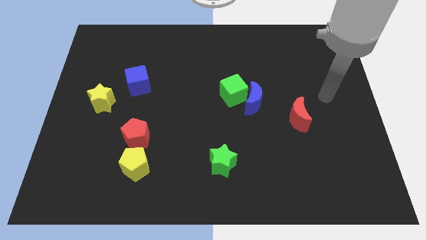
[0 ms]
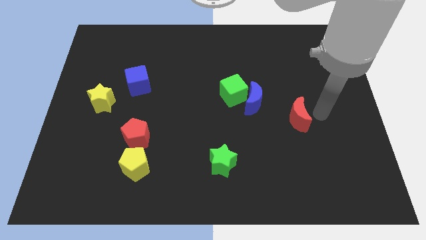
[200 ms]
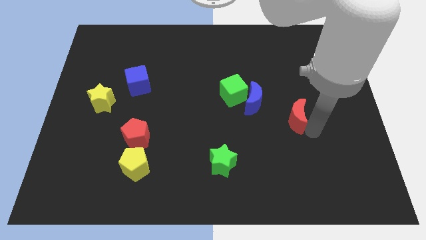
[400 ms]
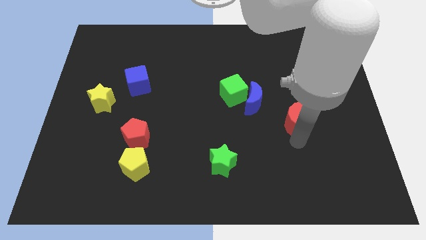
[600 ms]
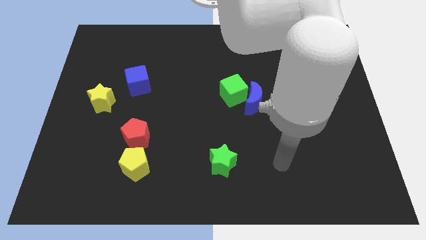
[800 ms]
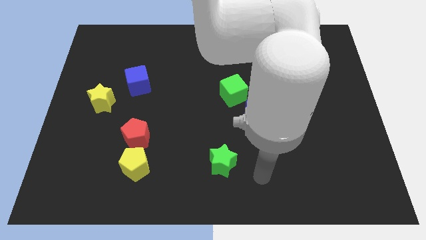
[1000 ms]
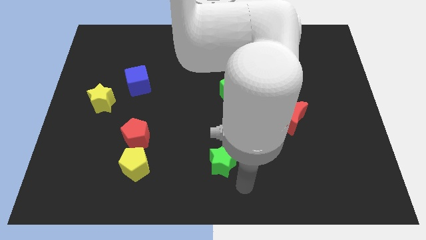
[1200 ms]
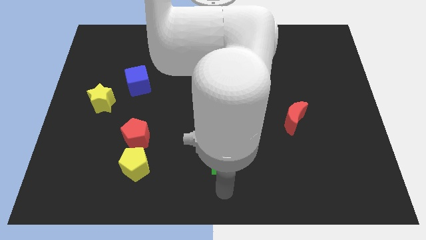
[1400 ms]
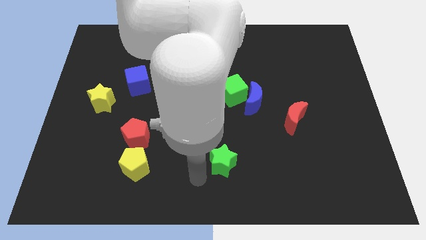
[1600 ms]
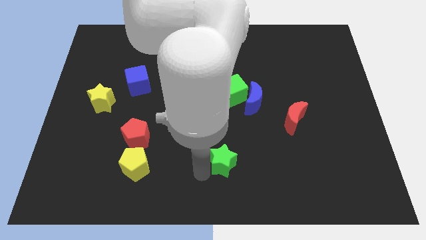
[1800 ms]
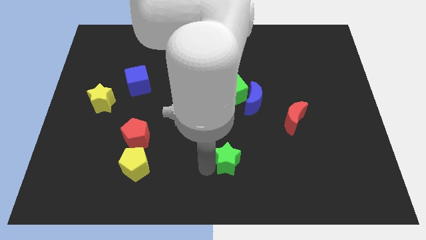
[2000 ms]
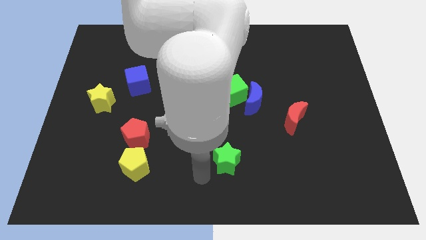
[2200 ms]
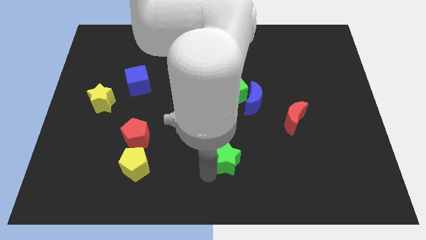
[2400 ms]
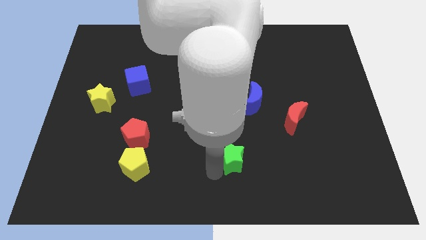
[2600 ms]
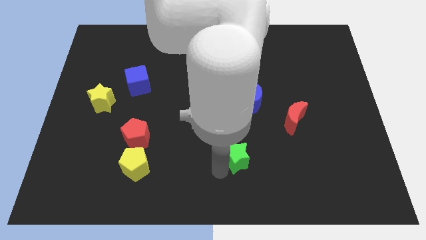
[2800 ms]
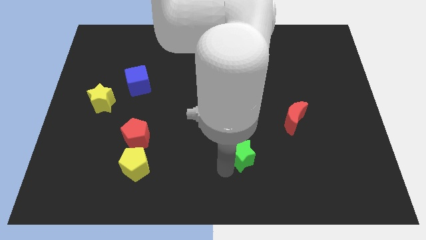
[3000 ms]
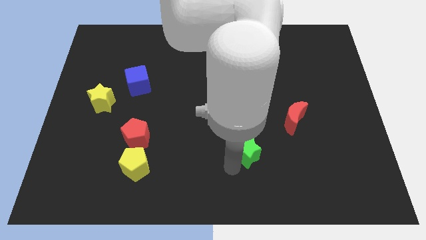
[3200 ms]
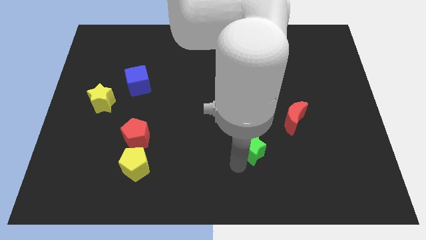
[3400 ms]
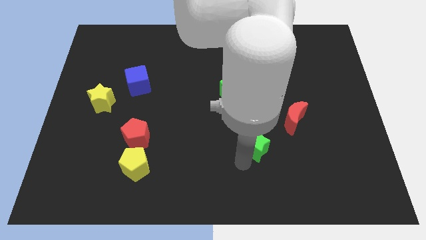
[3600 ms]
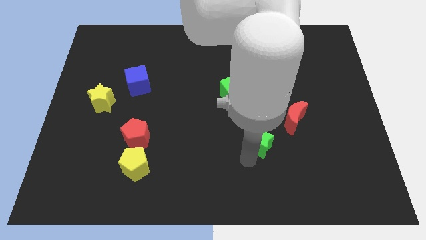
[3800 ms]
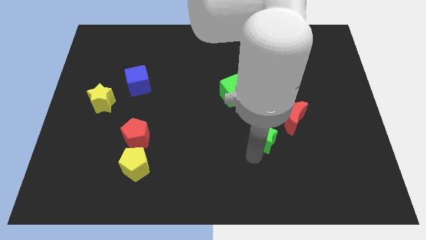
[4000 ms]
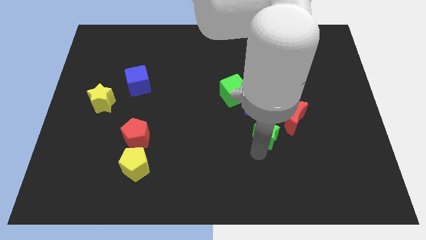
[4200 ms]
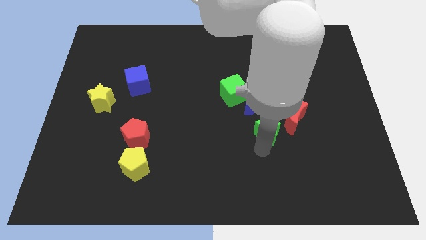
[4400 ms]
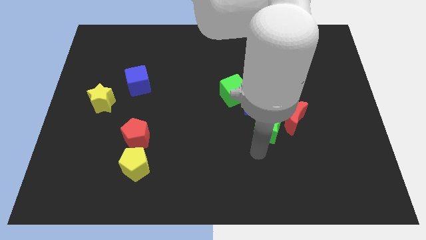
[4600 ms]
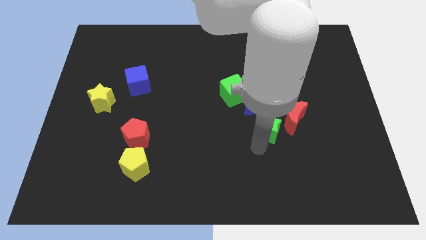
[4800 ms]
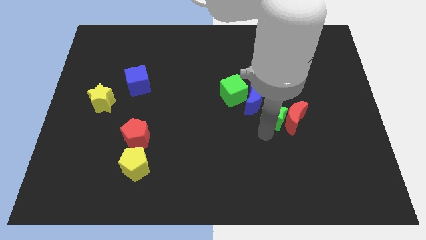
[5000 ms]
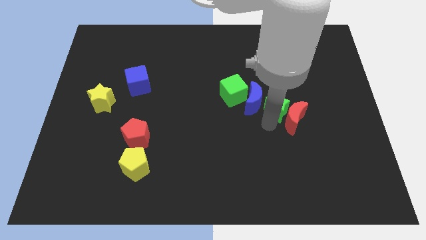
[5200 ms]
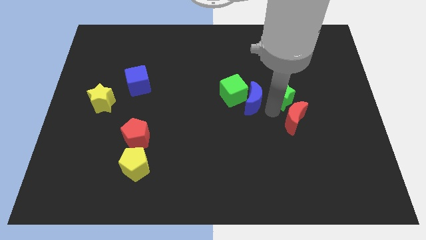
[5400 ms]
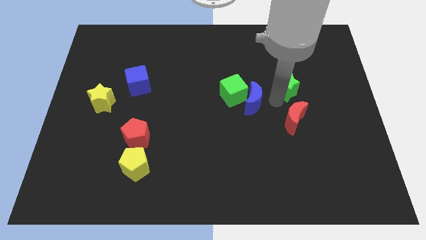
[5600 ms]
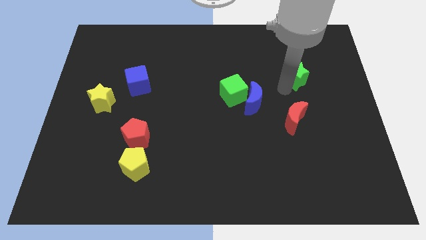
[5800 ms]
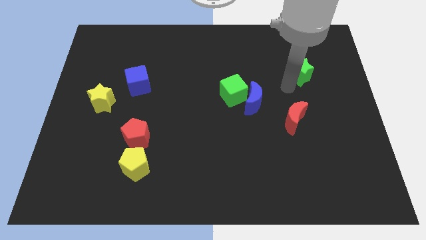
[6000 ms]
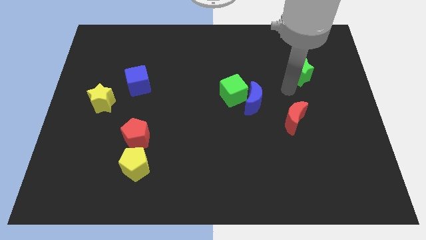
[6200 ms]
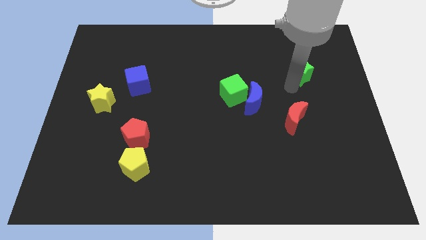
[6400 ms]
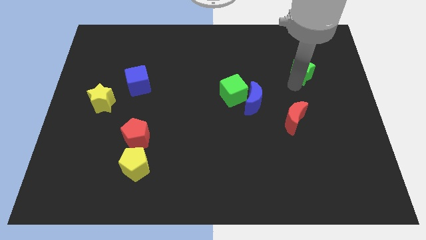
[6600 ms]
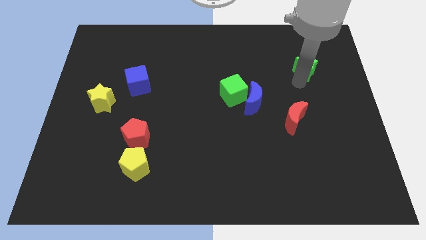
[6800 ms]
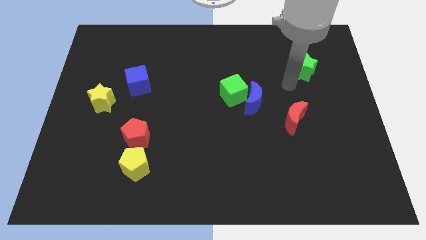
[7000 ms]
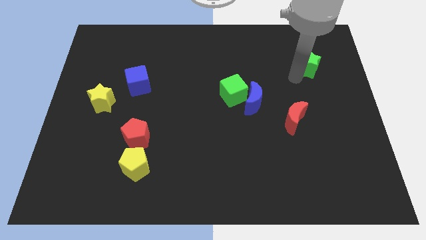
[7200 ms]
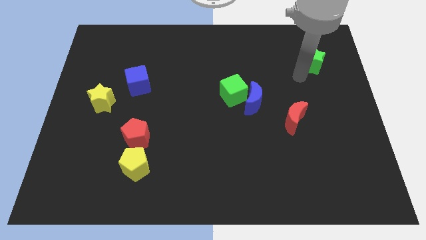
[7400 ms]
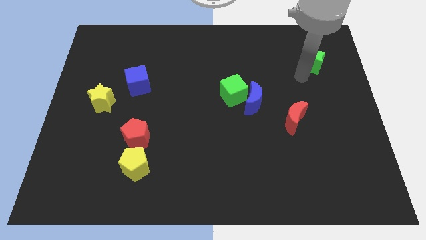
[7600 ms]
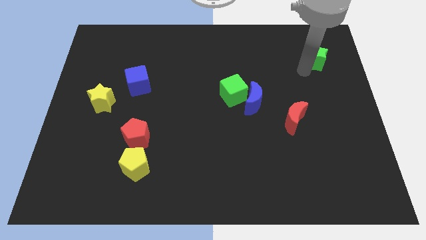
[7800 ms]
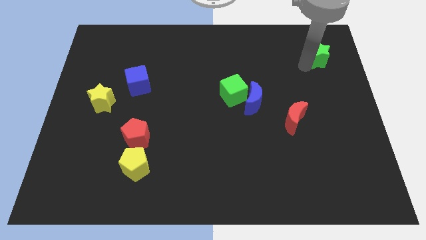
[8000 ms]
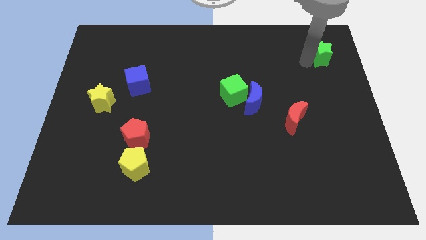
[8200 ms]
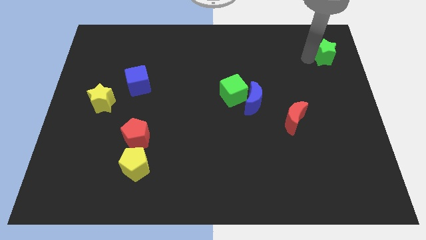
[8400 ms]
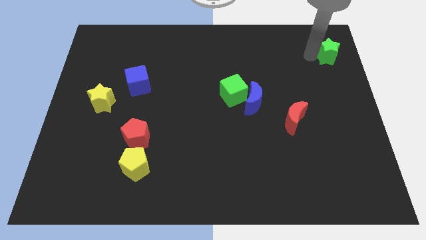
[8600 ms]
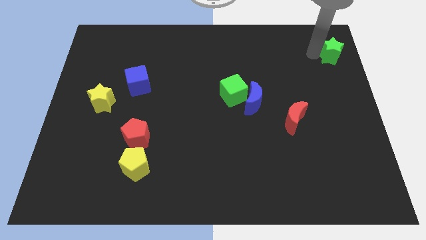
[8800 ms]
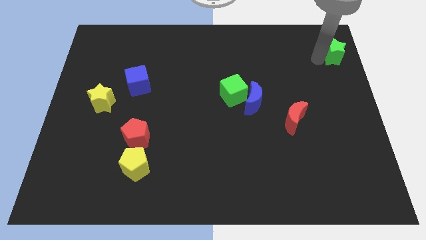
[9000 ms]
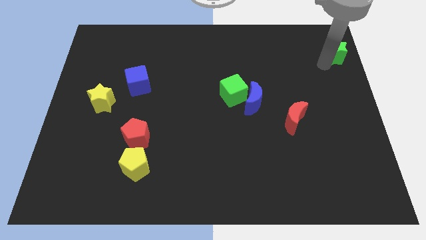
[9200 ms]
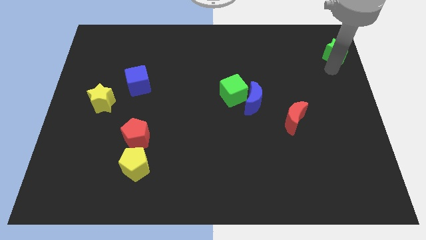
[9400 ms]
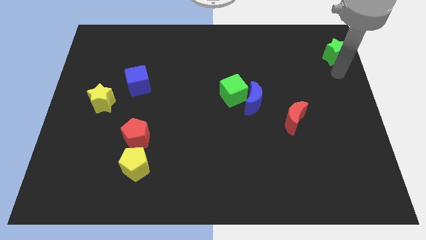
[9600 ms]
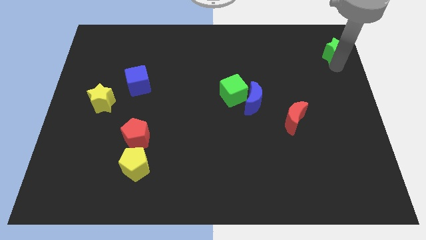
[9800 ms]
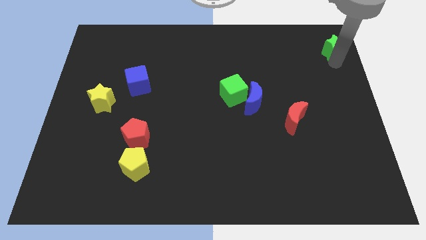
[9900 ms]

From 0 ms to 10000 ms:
slide the green star to the top right corner

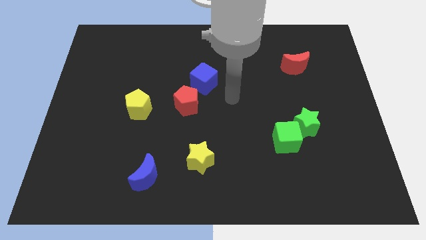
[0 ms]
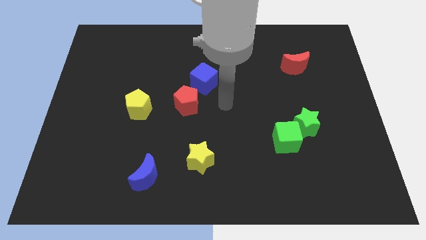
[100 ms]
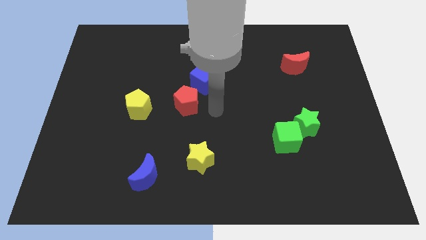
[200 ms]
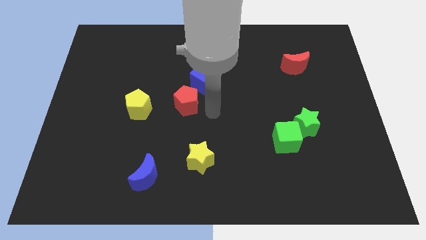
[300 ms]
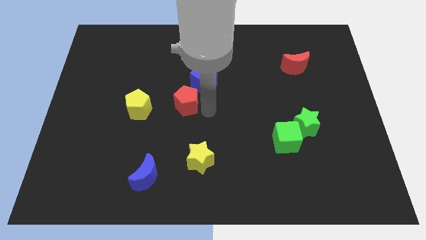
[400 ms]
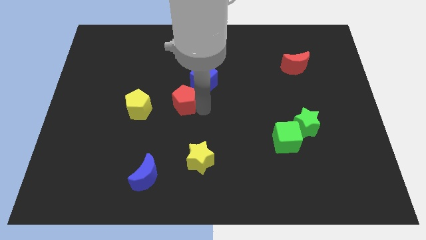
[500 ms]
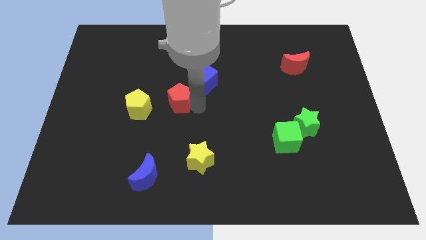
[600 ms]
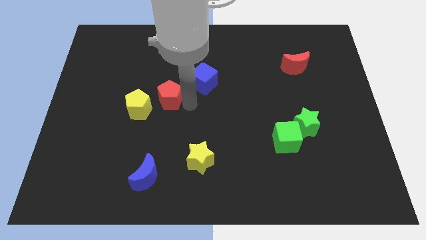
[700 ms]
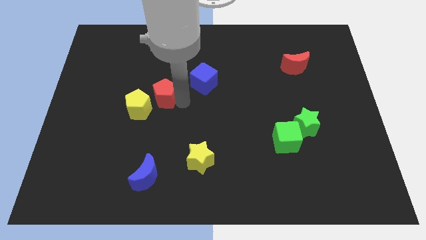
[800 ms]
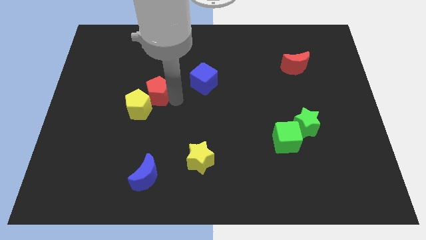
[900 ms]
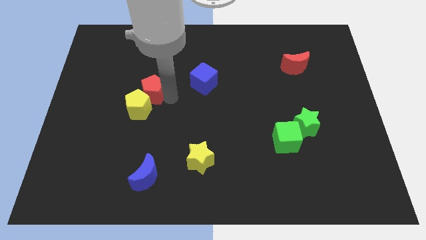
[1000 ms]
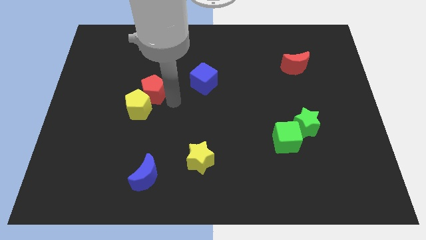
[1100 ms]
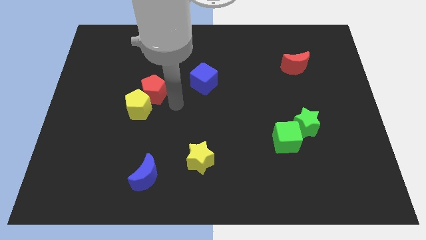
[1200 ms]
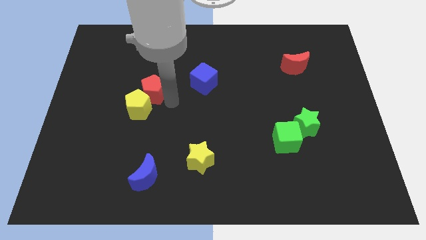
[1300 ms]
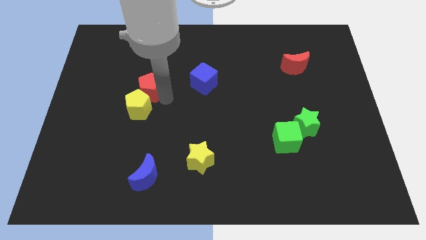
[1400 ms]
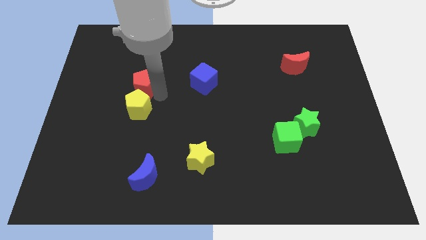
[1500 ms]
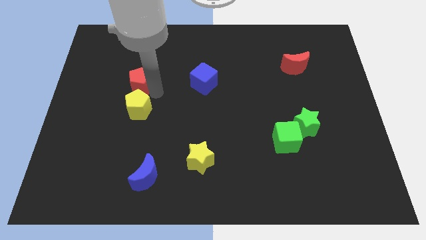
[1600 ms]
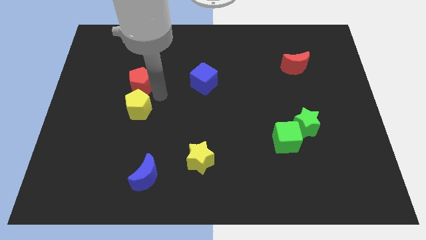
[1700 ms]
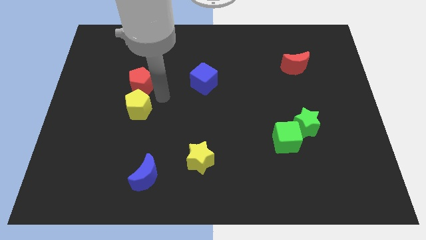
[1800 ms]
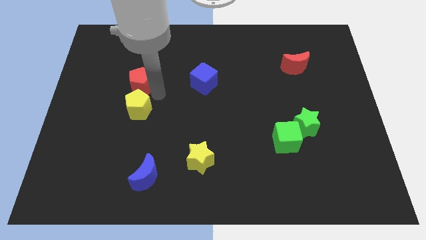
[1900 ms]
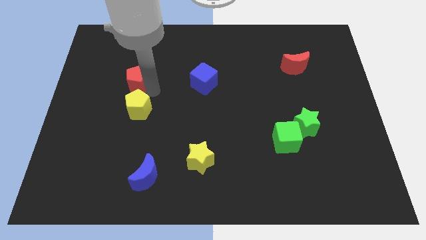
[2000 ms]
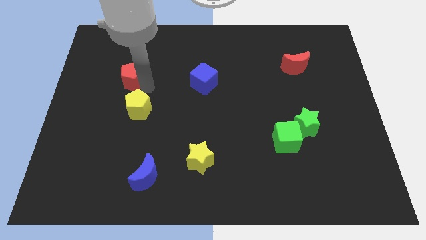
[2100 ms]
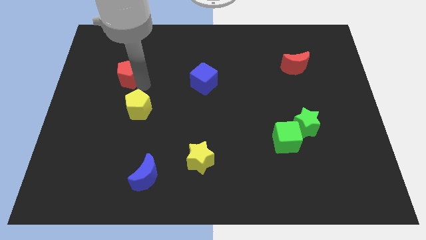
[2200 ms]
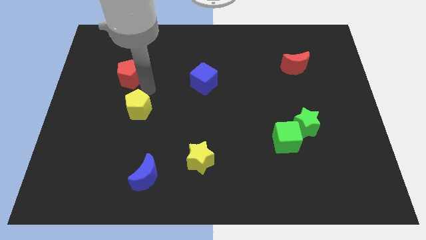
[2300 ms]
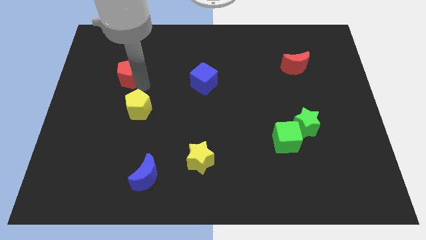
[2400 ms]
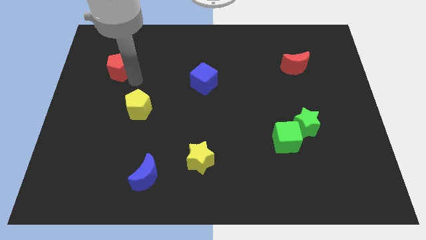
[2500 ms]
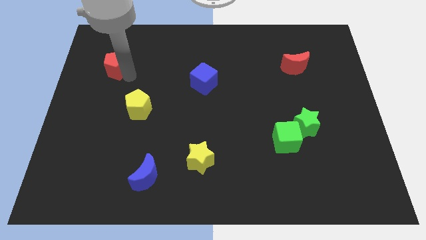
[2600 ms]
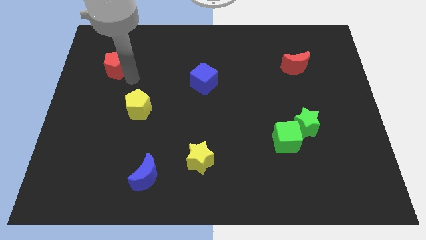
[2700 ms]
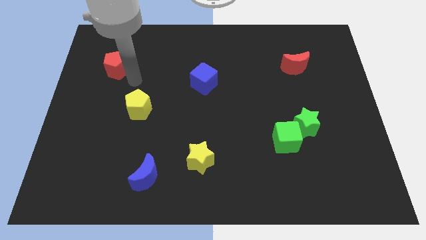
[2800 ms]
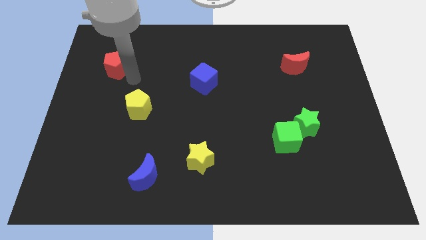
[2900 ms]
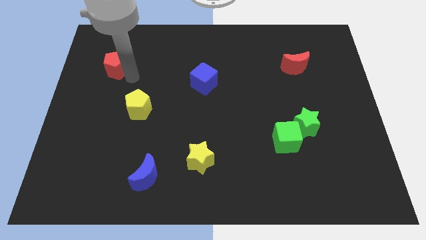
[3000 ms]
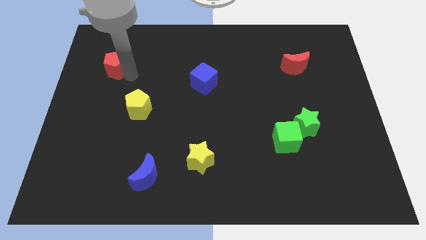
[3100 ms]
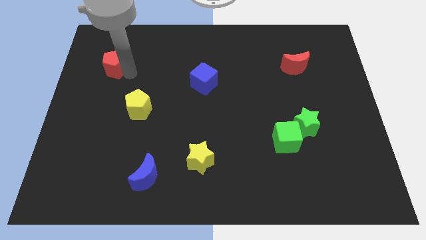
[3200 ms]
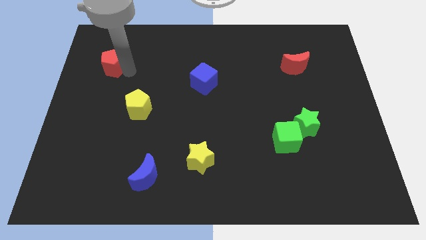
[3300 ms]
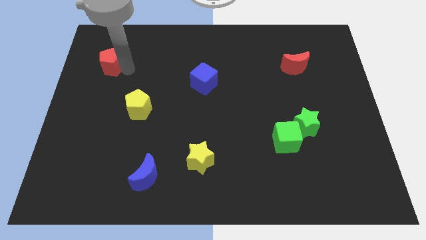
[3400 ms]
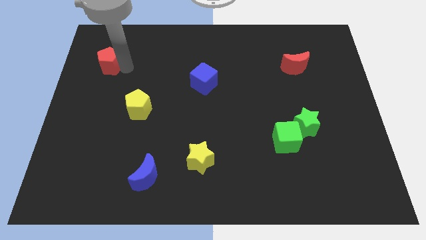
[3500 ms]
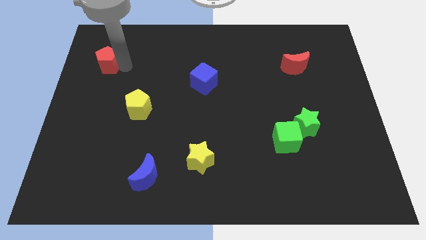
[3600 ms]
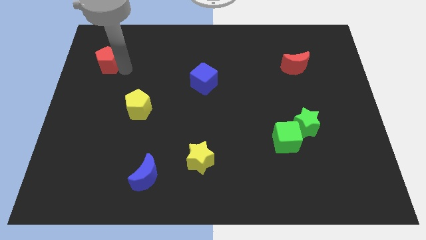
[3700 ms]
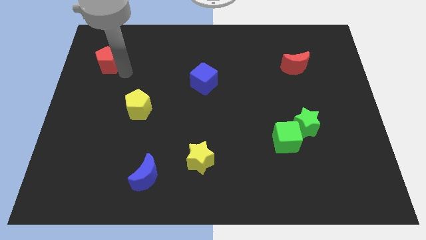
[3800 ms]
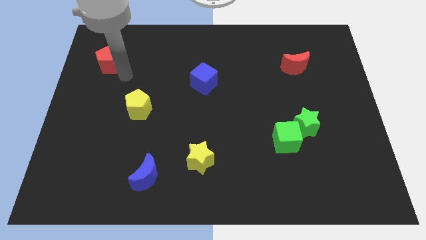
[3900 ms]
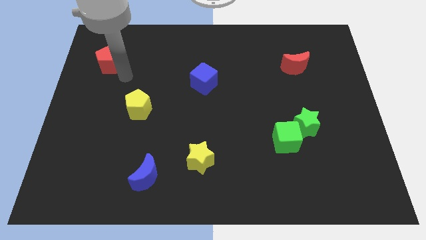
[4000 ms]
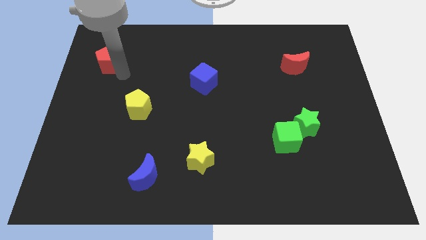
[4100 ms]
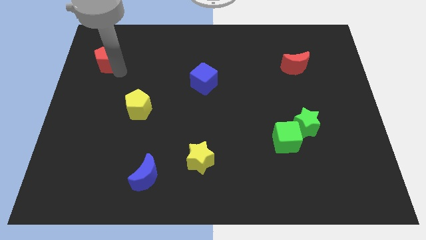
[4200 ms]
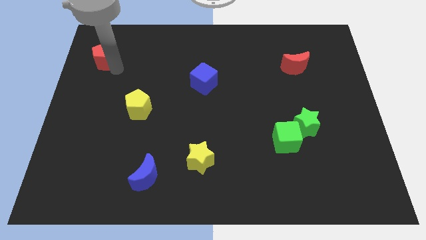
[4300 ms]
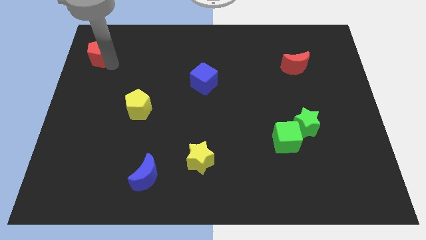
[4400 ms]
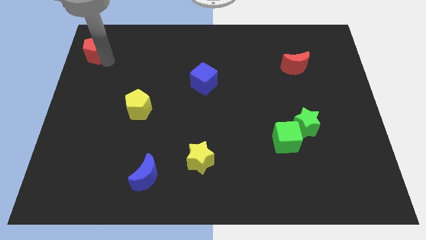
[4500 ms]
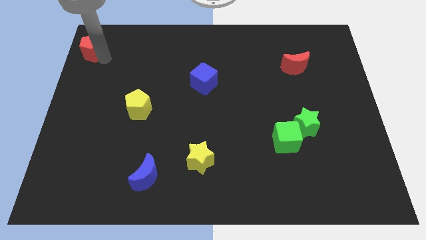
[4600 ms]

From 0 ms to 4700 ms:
put the red pentagon to the top left of the board
